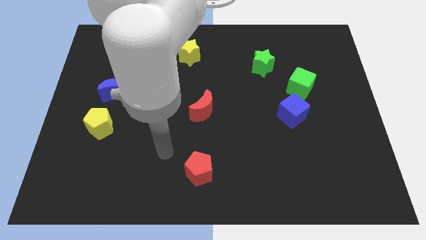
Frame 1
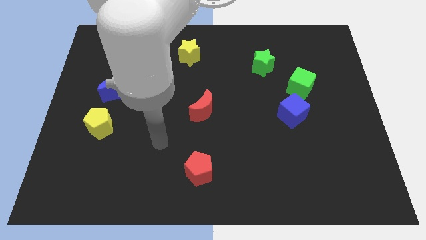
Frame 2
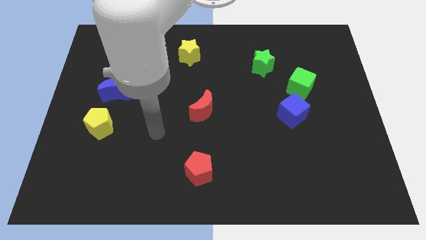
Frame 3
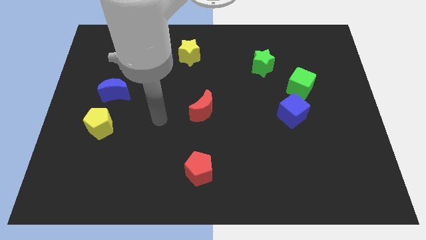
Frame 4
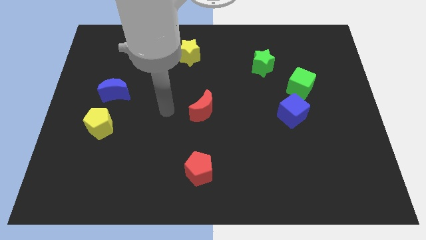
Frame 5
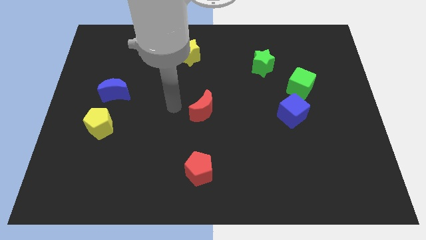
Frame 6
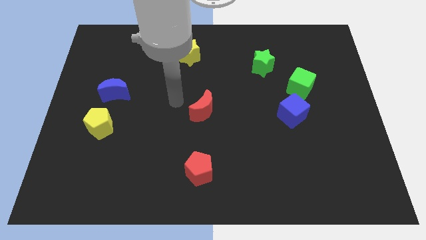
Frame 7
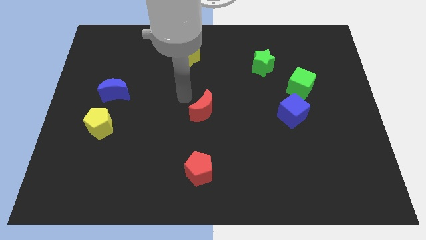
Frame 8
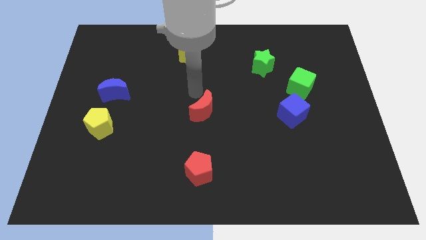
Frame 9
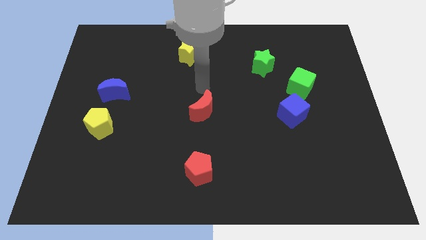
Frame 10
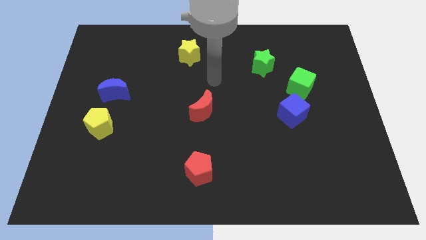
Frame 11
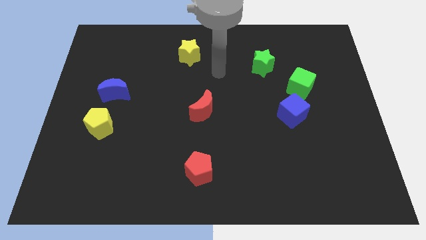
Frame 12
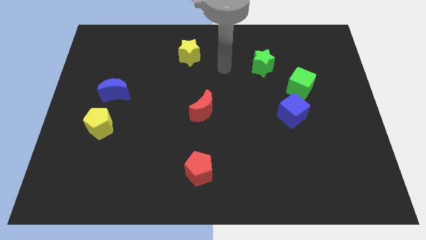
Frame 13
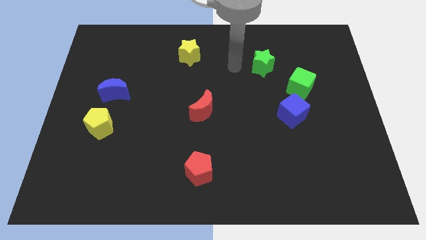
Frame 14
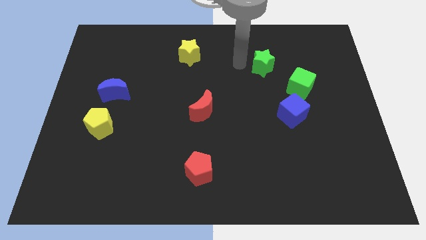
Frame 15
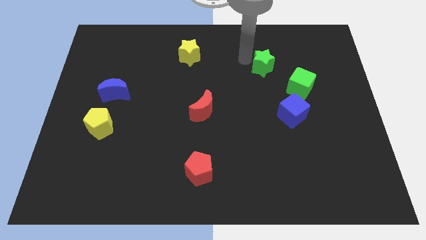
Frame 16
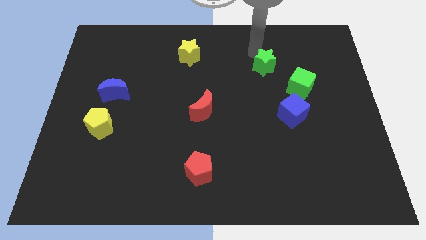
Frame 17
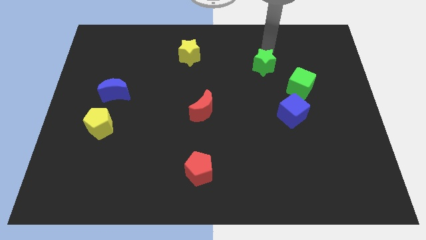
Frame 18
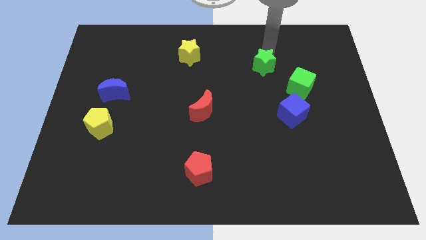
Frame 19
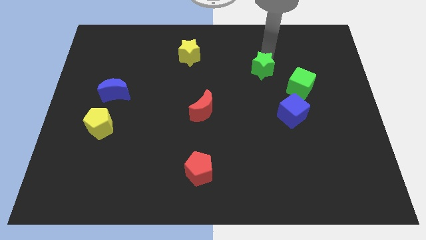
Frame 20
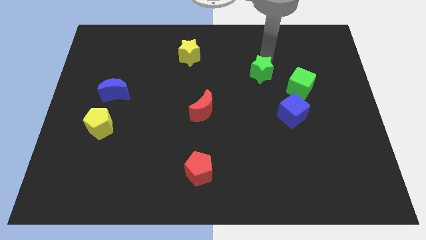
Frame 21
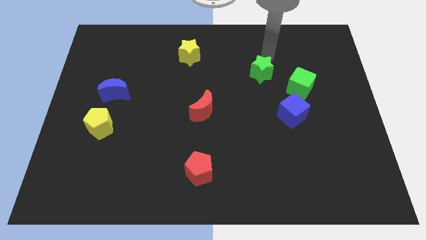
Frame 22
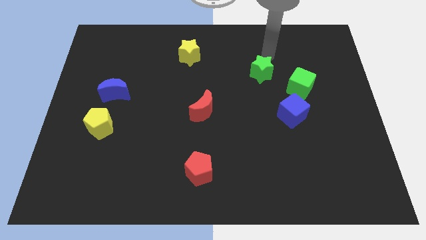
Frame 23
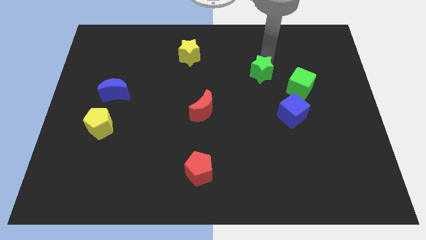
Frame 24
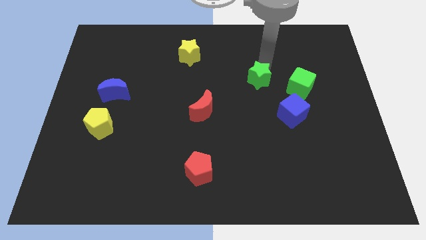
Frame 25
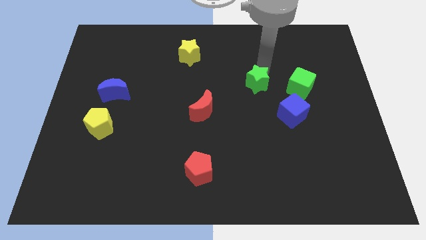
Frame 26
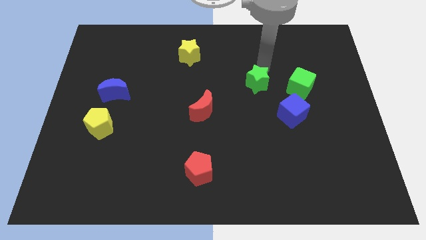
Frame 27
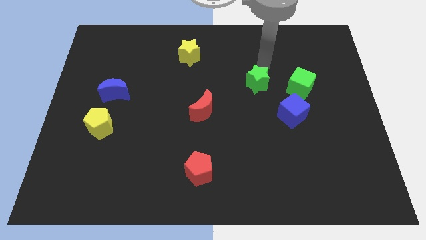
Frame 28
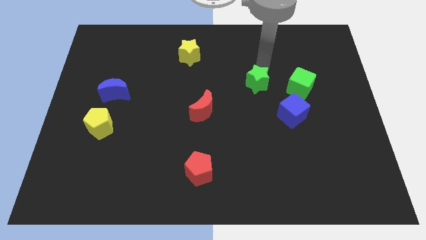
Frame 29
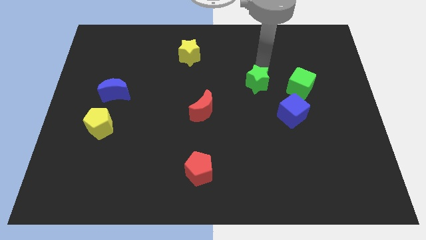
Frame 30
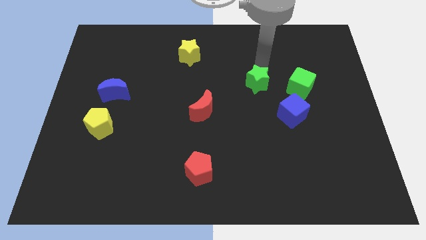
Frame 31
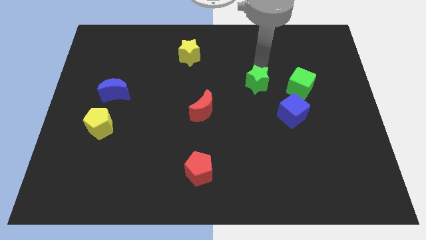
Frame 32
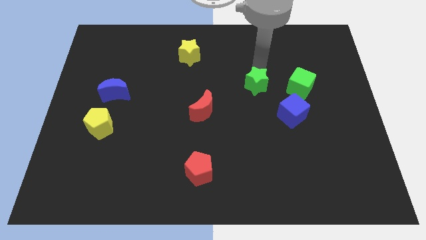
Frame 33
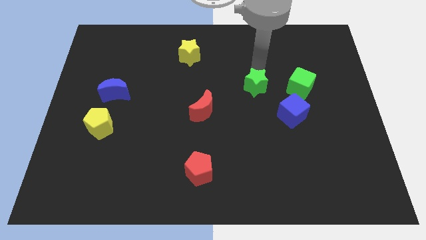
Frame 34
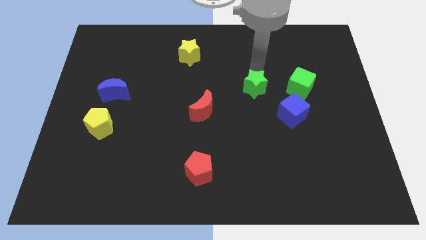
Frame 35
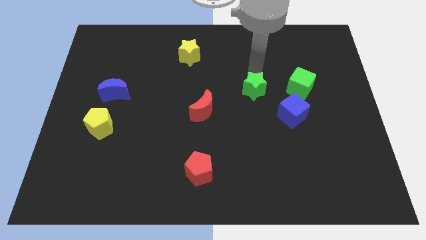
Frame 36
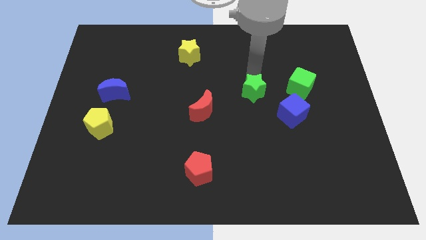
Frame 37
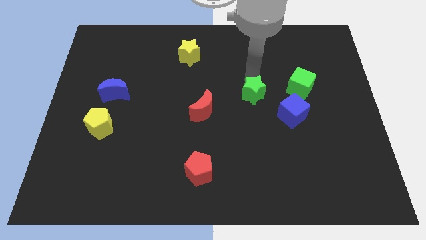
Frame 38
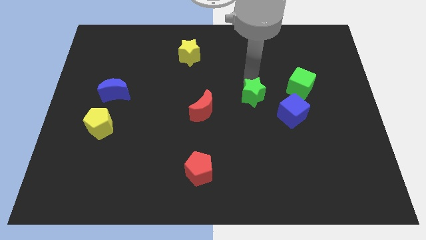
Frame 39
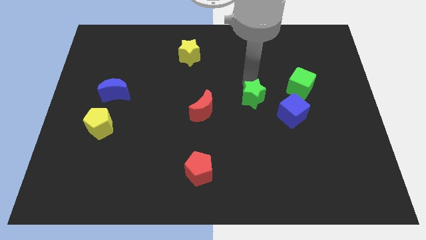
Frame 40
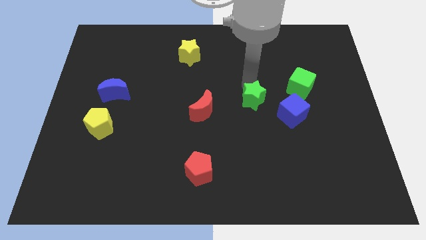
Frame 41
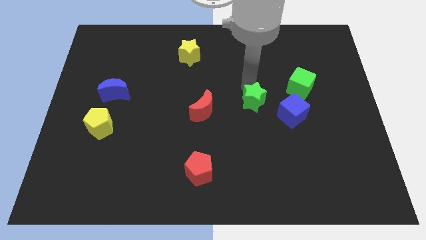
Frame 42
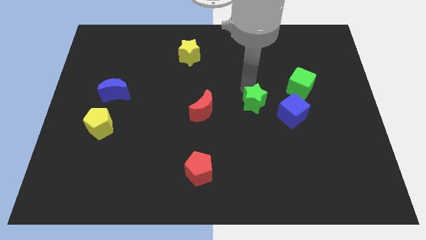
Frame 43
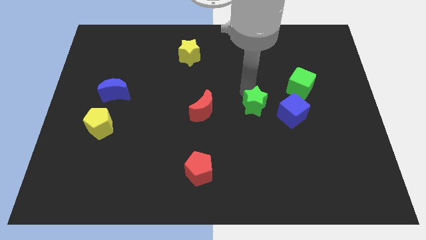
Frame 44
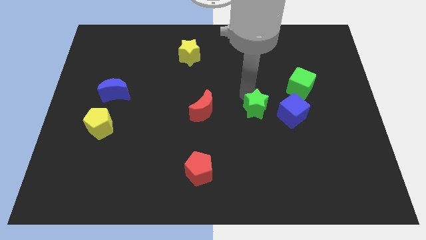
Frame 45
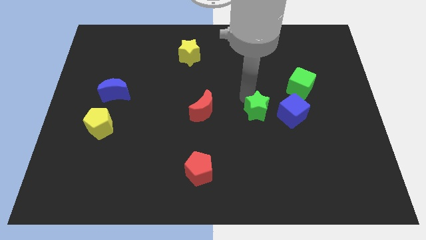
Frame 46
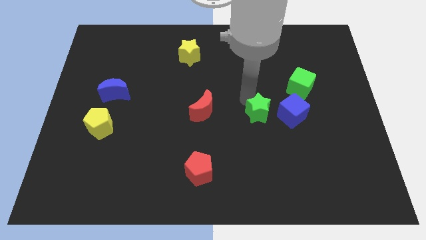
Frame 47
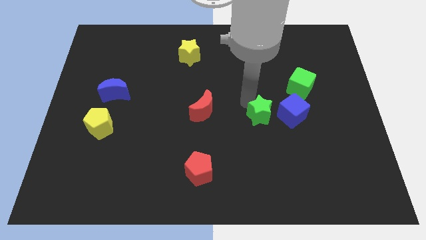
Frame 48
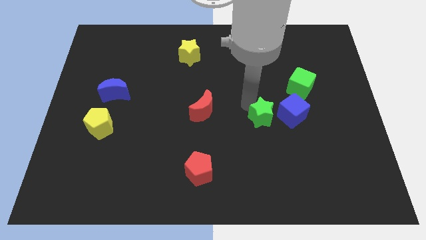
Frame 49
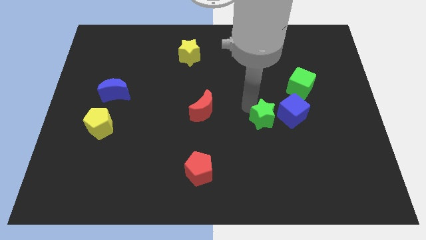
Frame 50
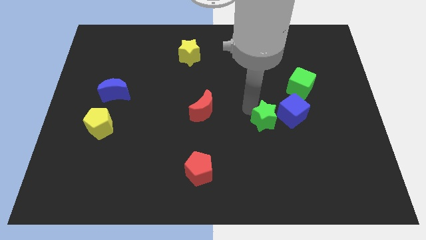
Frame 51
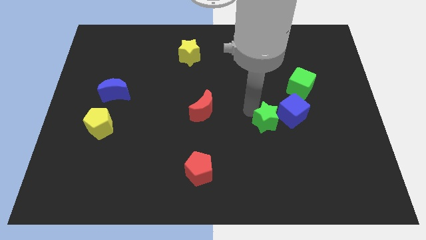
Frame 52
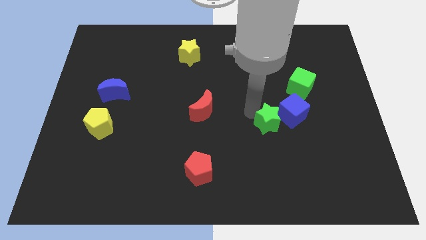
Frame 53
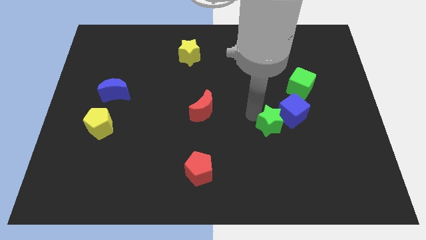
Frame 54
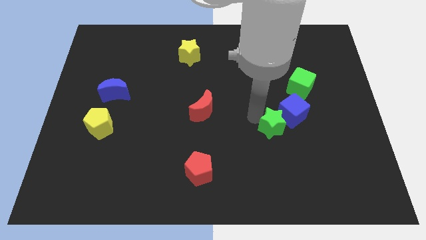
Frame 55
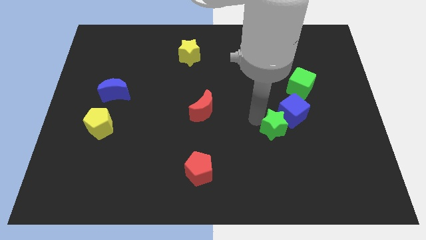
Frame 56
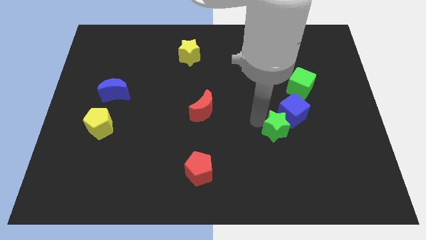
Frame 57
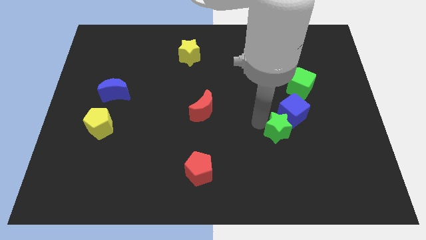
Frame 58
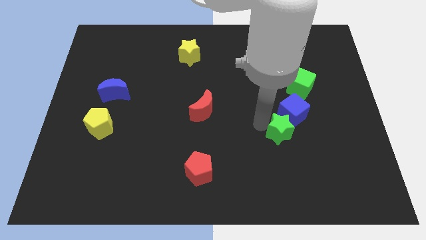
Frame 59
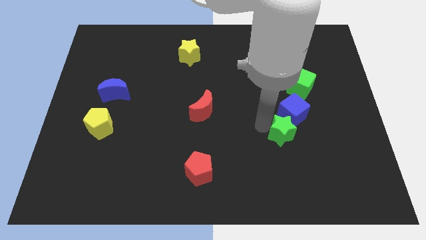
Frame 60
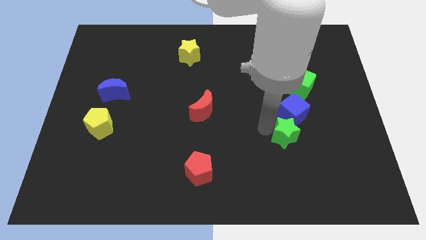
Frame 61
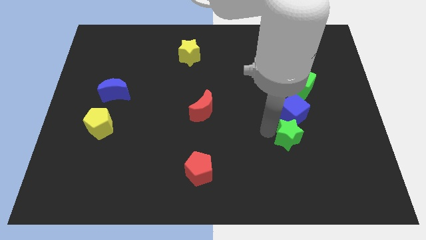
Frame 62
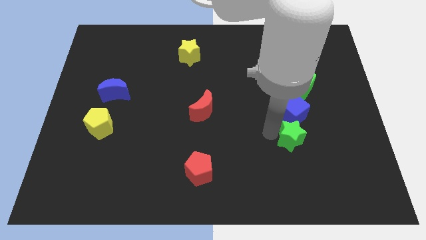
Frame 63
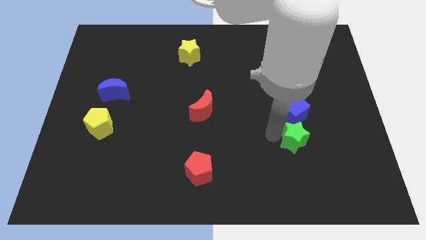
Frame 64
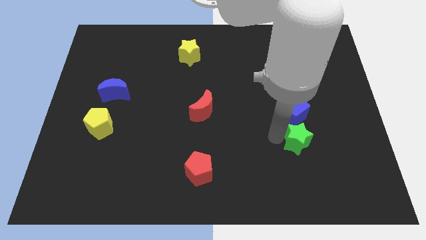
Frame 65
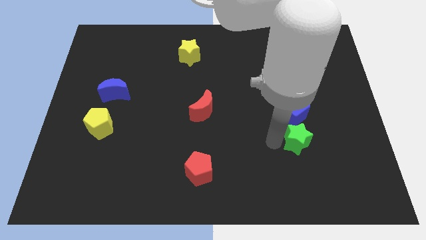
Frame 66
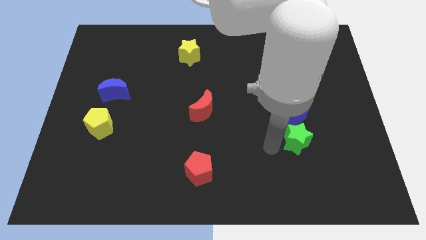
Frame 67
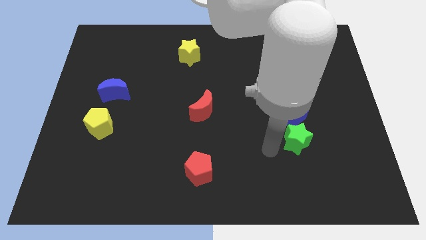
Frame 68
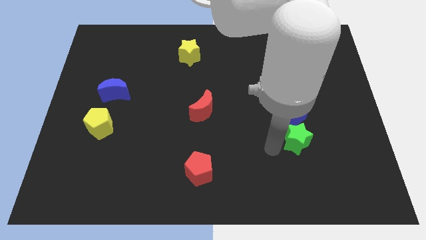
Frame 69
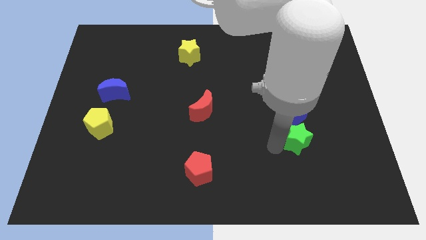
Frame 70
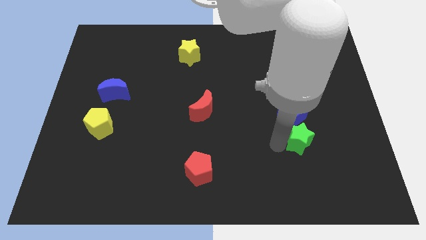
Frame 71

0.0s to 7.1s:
put the green star to the bottom right of the blue cube
